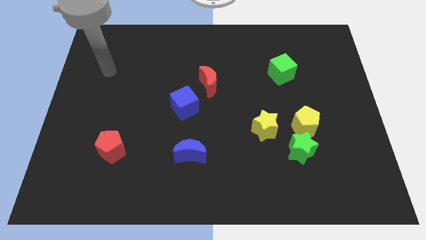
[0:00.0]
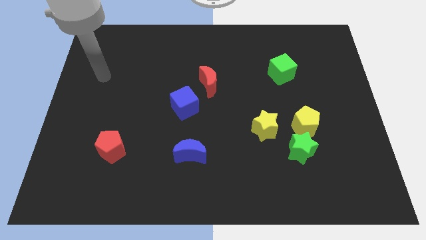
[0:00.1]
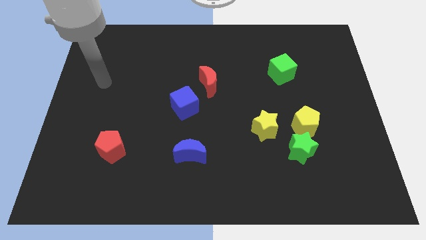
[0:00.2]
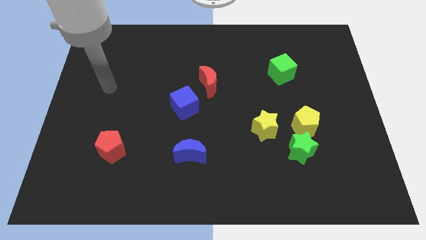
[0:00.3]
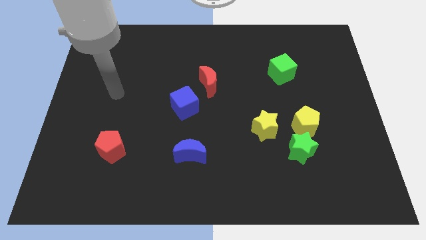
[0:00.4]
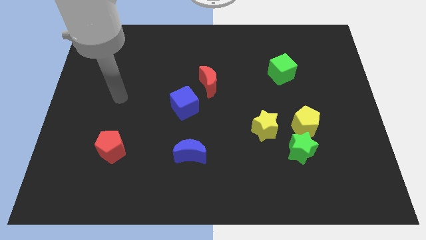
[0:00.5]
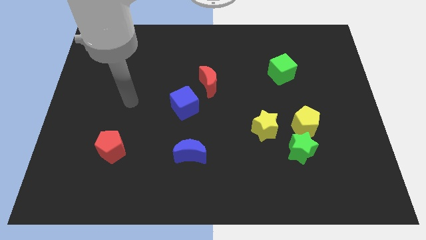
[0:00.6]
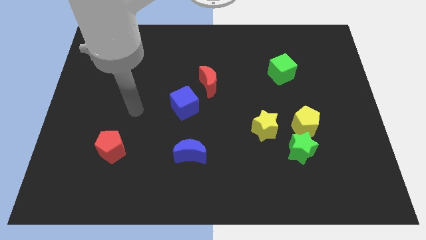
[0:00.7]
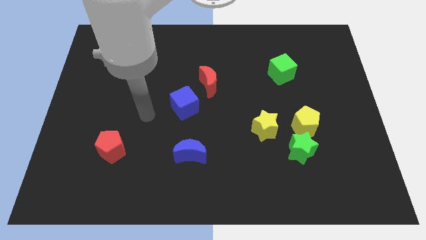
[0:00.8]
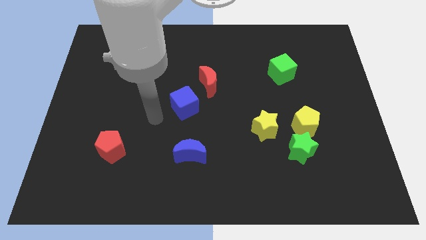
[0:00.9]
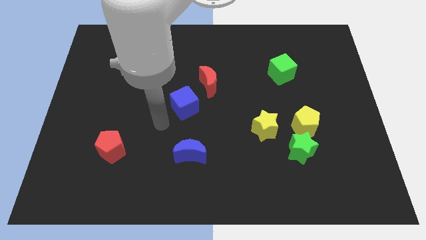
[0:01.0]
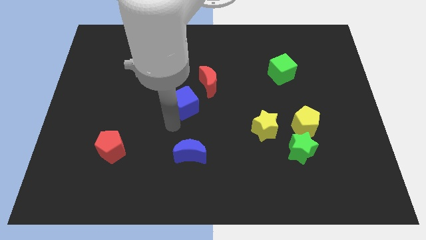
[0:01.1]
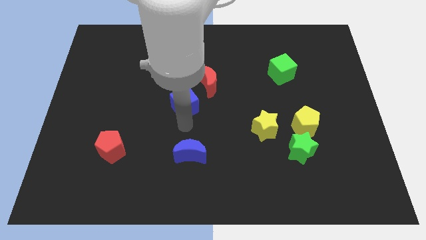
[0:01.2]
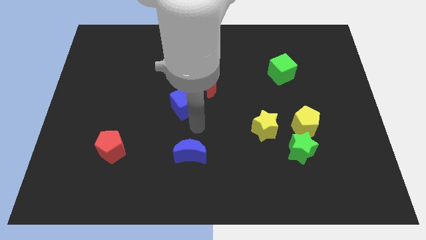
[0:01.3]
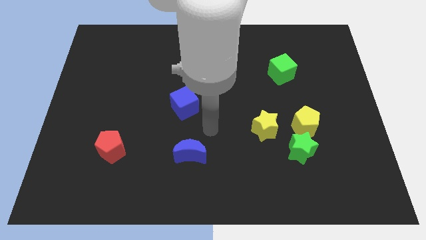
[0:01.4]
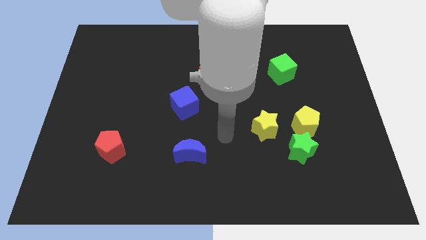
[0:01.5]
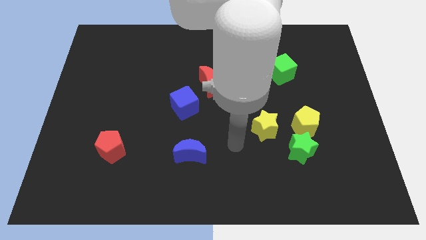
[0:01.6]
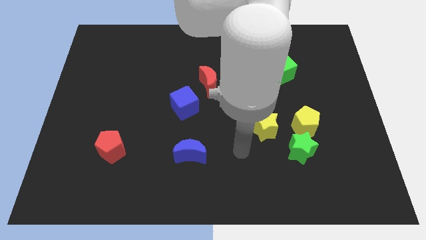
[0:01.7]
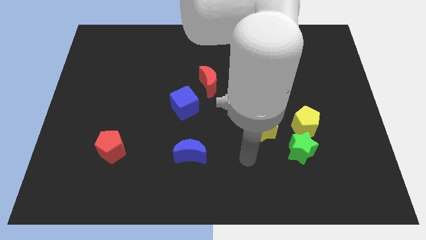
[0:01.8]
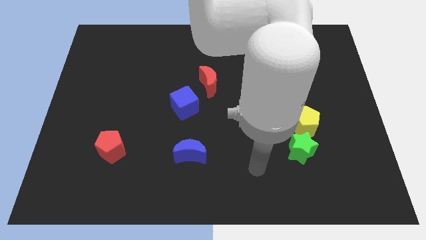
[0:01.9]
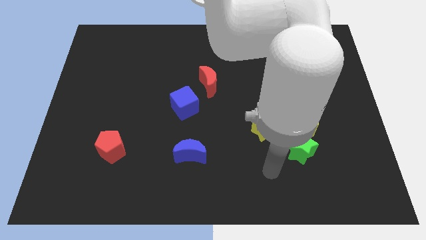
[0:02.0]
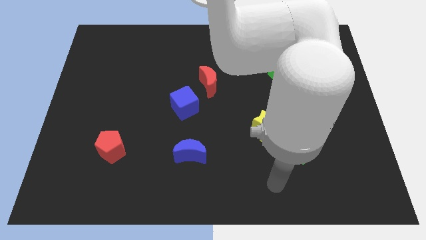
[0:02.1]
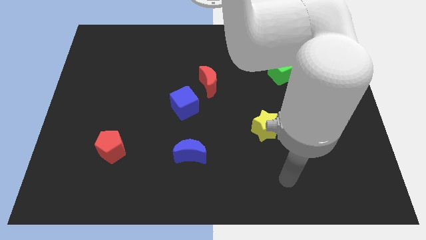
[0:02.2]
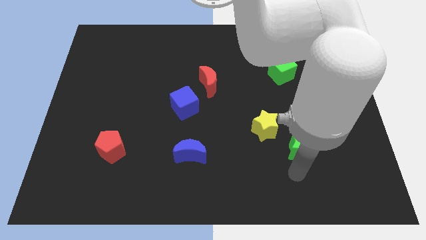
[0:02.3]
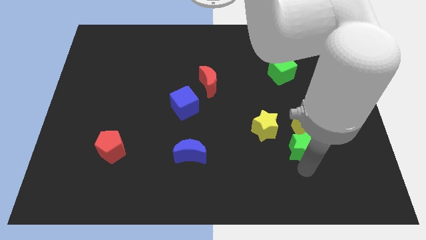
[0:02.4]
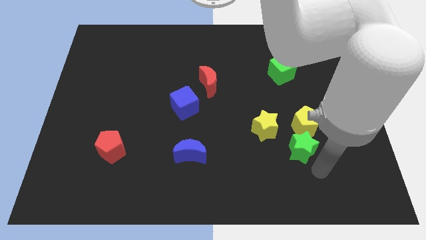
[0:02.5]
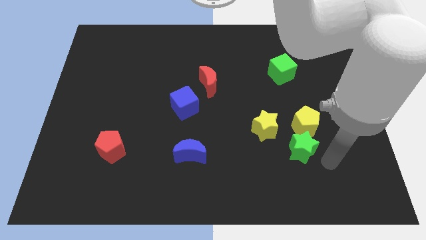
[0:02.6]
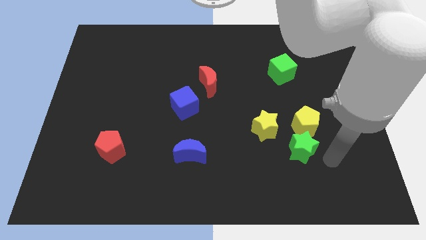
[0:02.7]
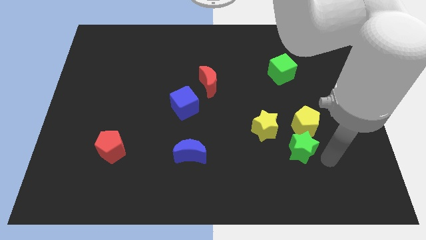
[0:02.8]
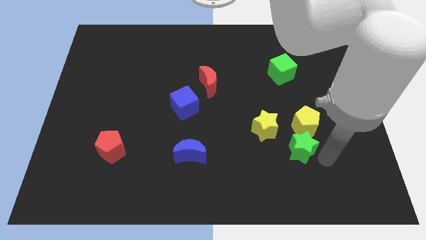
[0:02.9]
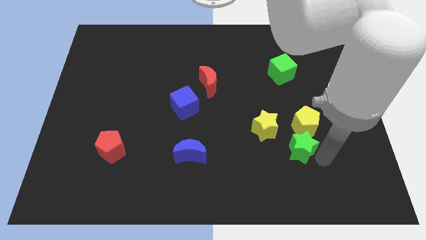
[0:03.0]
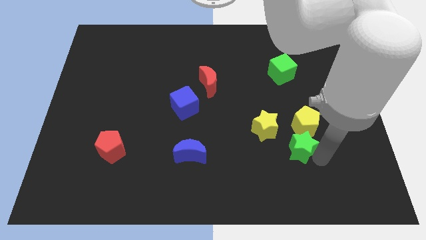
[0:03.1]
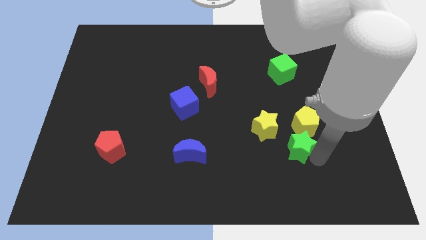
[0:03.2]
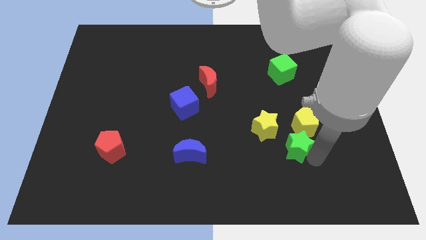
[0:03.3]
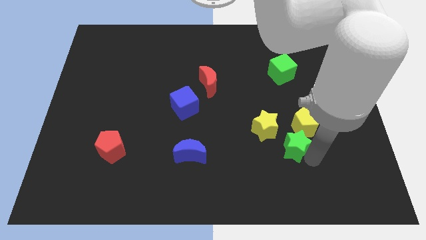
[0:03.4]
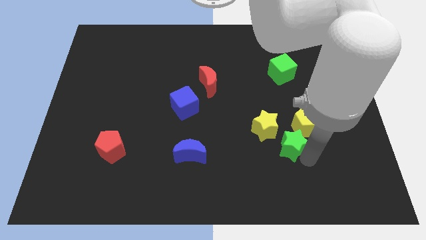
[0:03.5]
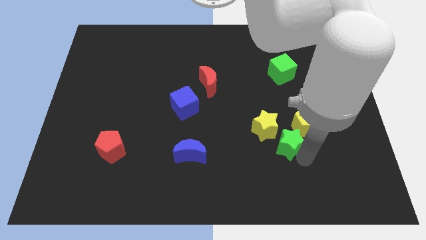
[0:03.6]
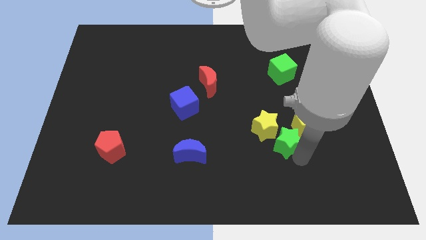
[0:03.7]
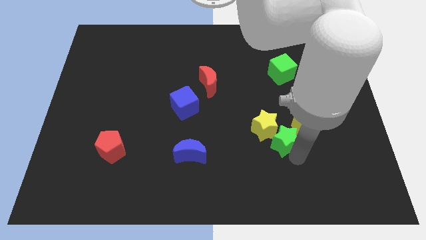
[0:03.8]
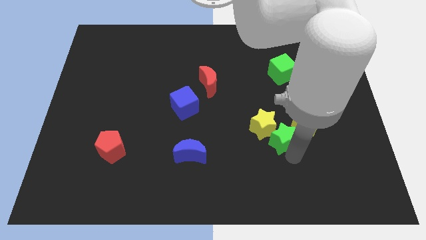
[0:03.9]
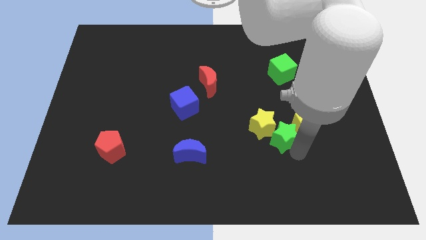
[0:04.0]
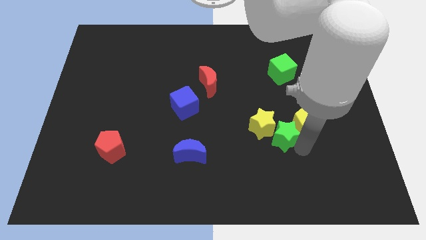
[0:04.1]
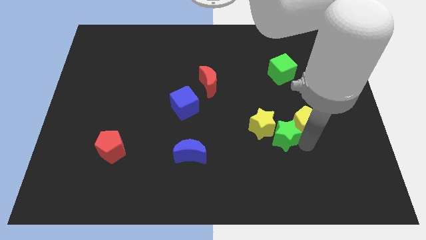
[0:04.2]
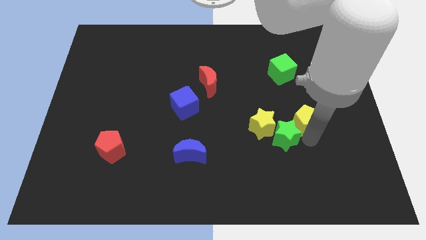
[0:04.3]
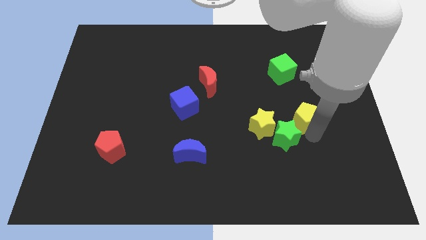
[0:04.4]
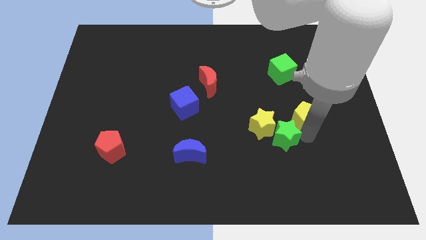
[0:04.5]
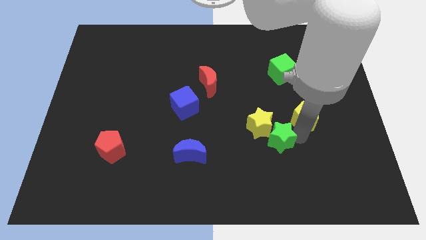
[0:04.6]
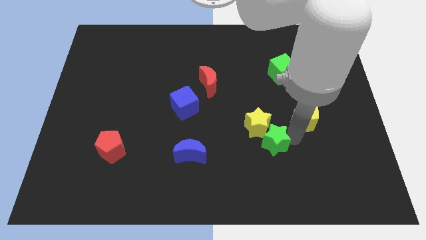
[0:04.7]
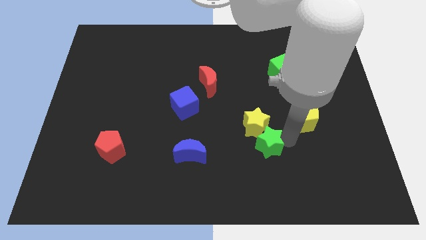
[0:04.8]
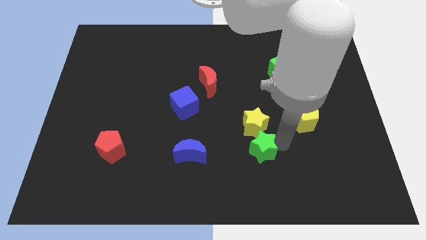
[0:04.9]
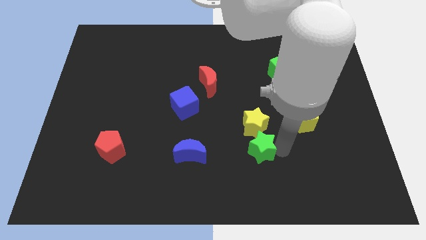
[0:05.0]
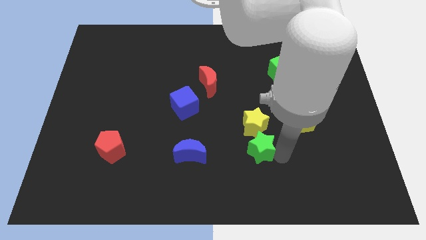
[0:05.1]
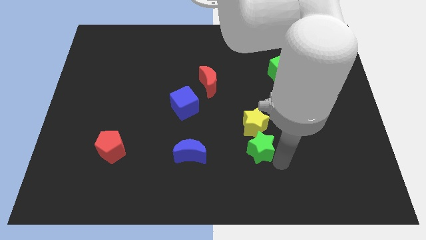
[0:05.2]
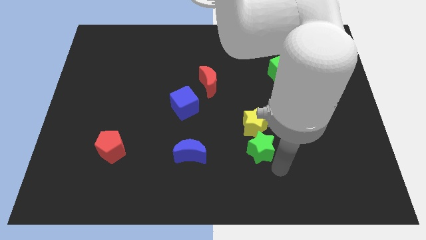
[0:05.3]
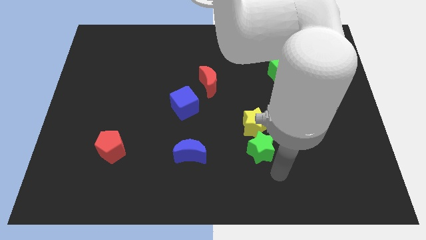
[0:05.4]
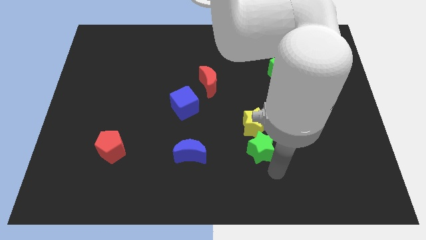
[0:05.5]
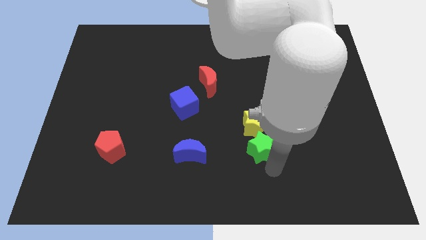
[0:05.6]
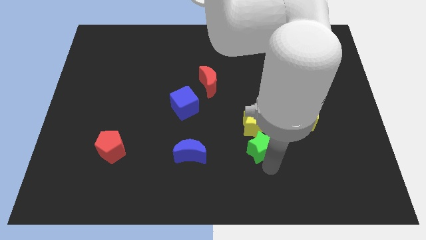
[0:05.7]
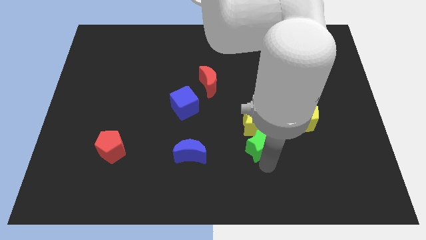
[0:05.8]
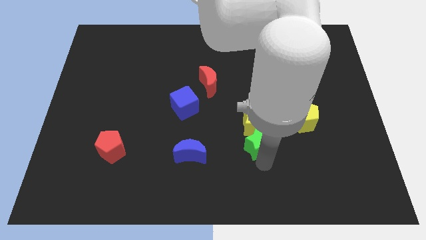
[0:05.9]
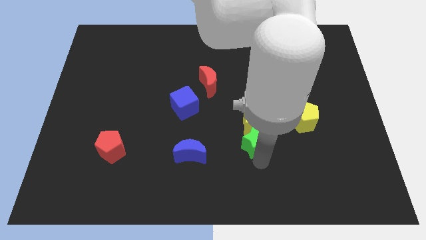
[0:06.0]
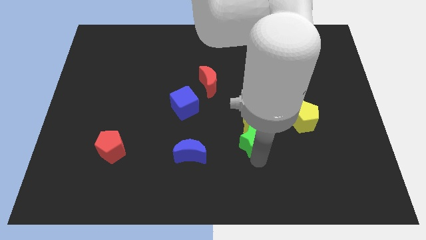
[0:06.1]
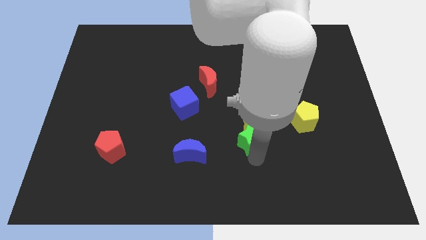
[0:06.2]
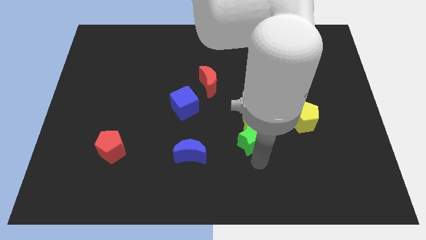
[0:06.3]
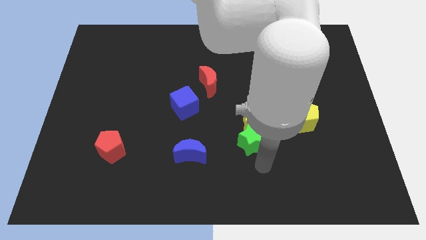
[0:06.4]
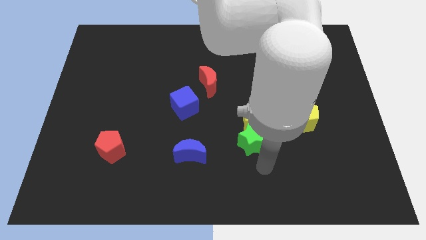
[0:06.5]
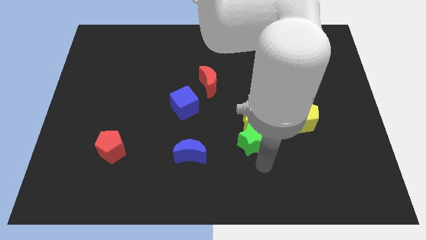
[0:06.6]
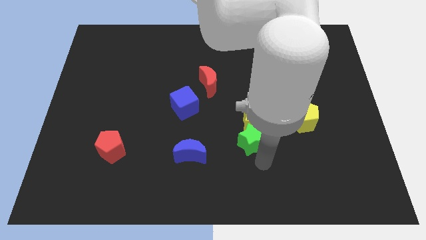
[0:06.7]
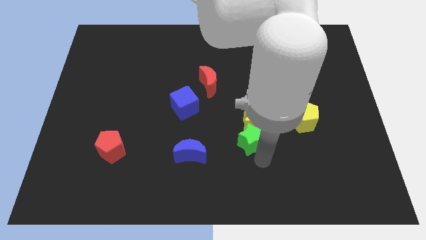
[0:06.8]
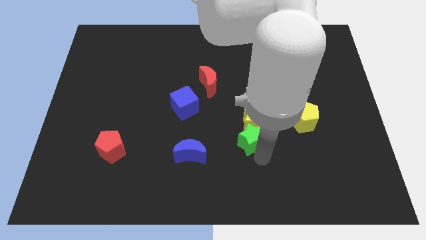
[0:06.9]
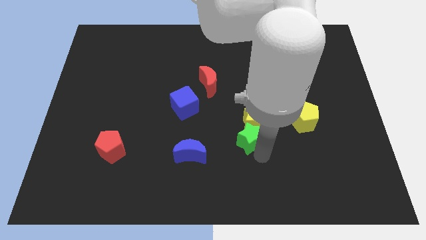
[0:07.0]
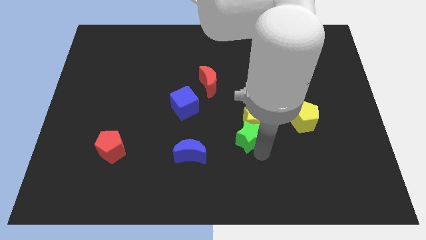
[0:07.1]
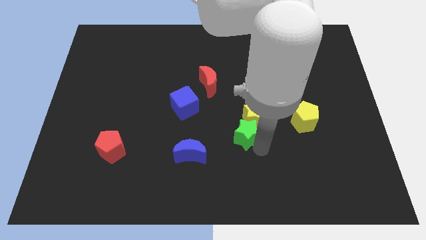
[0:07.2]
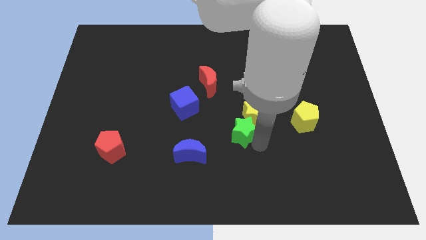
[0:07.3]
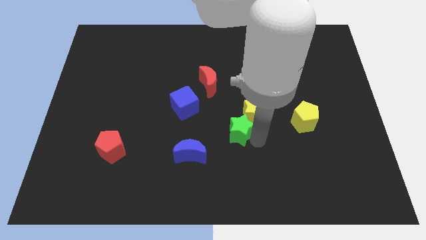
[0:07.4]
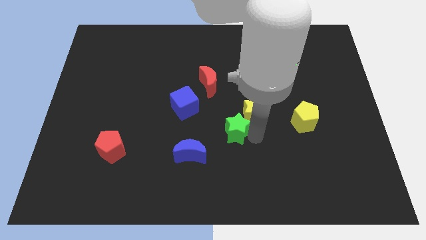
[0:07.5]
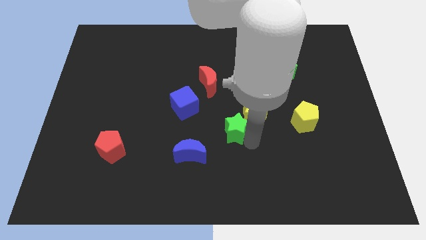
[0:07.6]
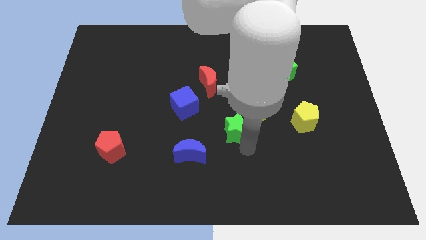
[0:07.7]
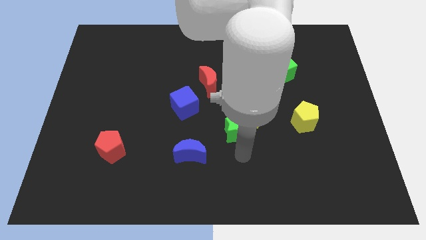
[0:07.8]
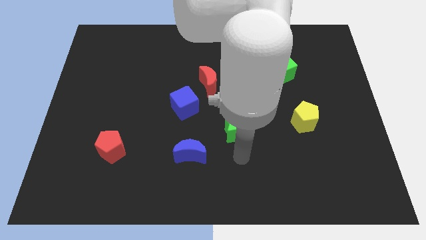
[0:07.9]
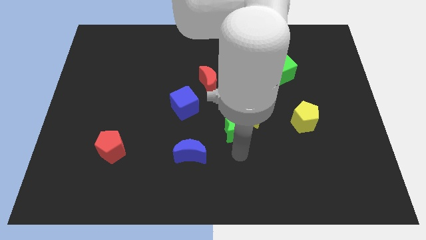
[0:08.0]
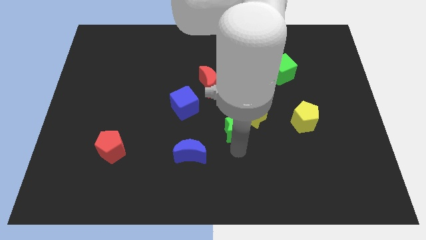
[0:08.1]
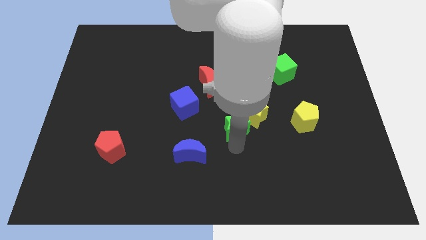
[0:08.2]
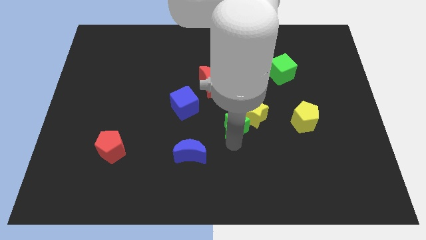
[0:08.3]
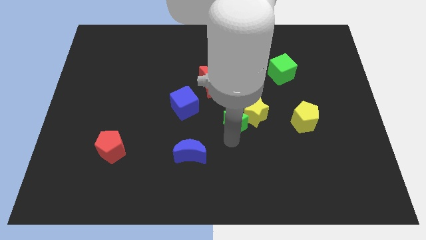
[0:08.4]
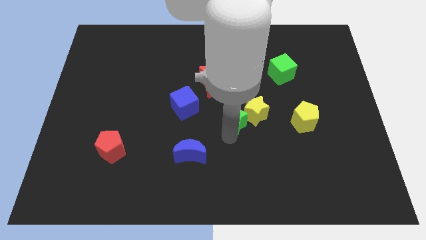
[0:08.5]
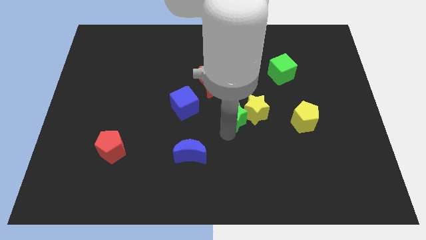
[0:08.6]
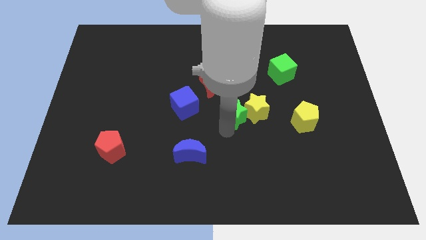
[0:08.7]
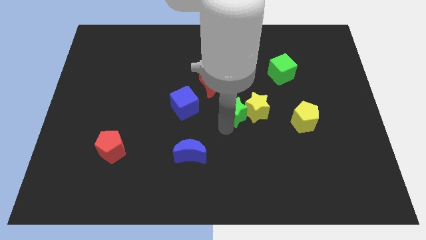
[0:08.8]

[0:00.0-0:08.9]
move the green star diagonally up and to the left of the yellow star
